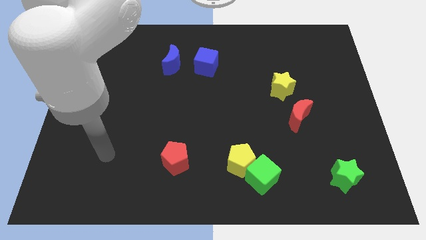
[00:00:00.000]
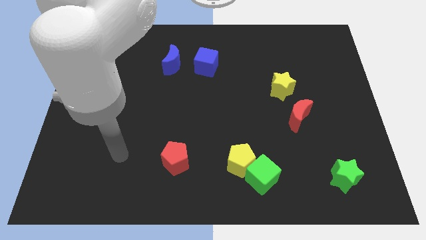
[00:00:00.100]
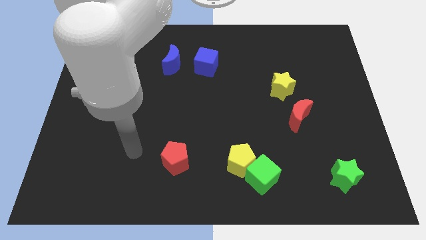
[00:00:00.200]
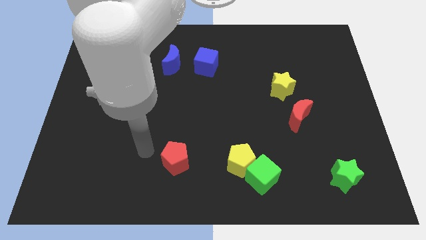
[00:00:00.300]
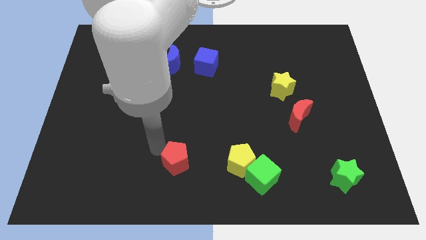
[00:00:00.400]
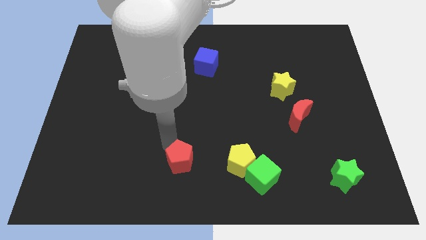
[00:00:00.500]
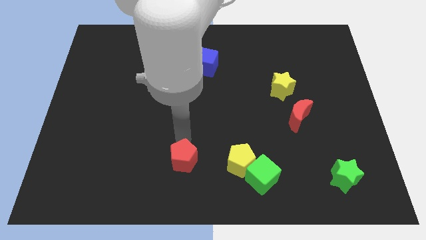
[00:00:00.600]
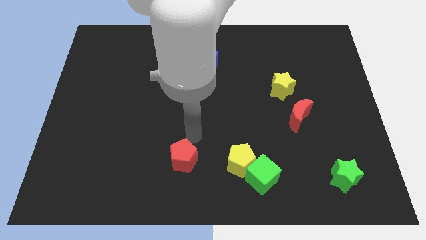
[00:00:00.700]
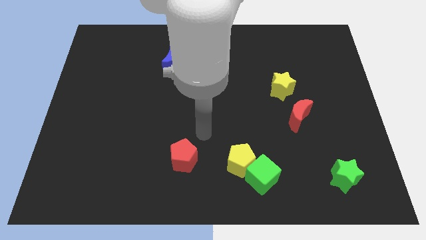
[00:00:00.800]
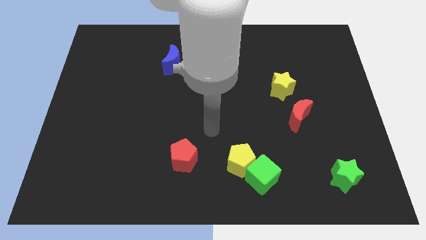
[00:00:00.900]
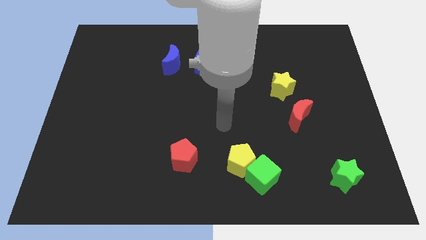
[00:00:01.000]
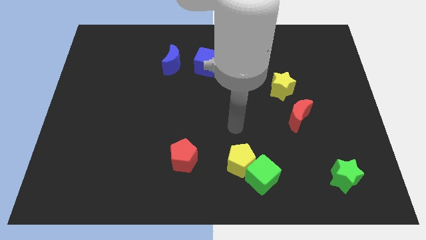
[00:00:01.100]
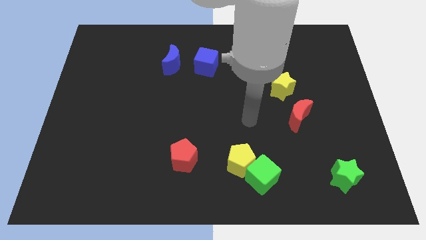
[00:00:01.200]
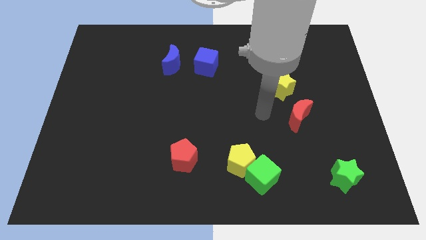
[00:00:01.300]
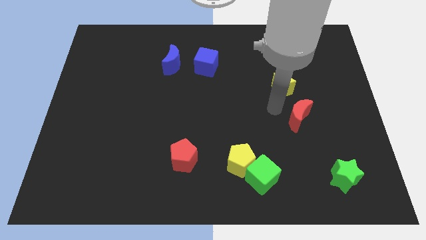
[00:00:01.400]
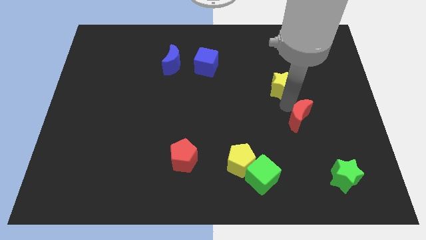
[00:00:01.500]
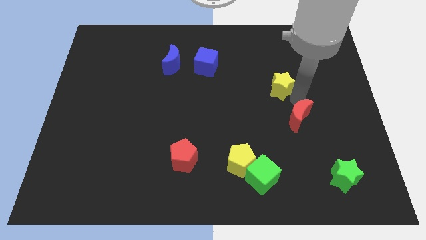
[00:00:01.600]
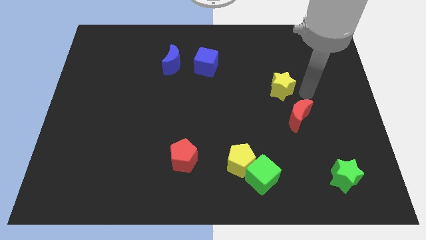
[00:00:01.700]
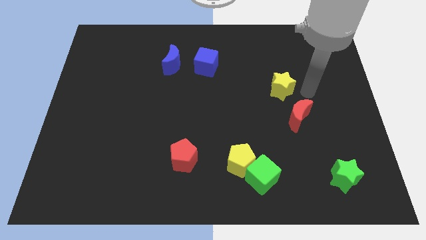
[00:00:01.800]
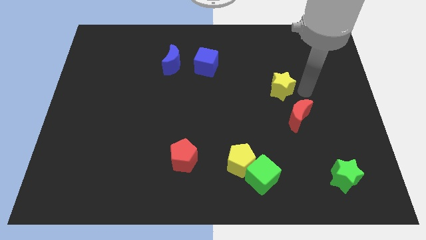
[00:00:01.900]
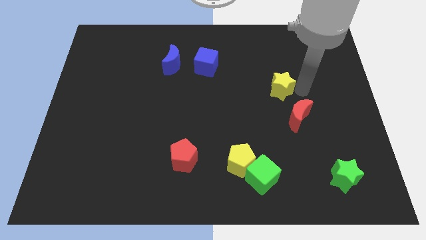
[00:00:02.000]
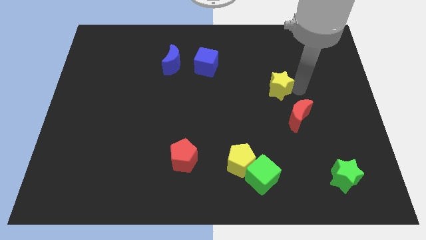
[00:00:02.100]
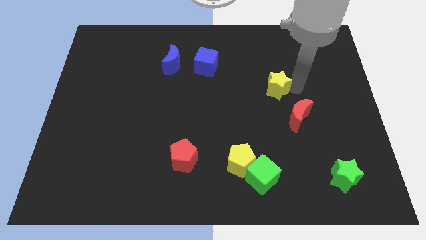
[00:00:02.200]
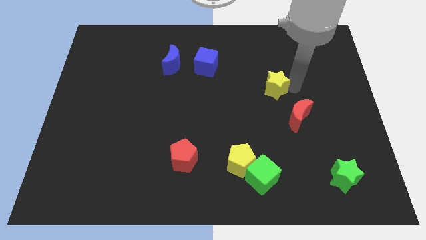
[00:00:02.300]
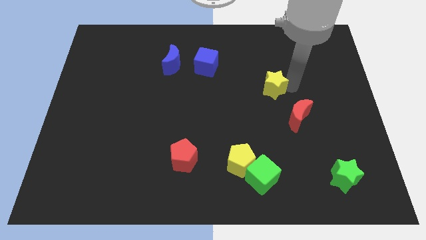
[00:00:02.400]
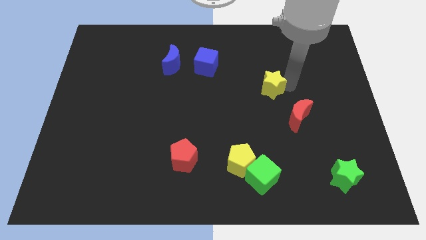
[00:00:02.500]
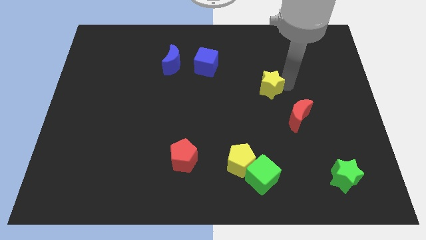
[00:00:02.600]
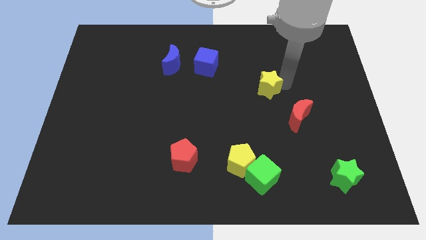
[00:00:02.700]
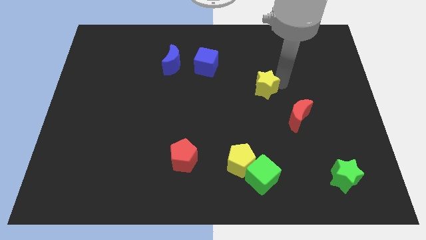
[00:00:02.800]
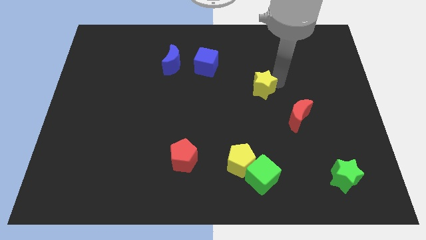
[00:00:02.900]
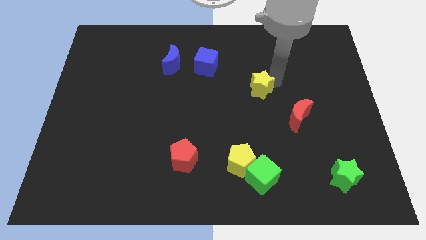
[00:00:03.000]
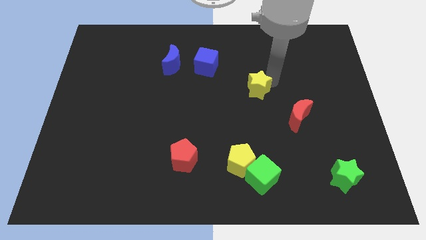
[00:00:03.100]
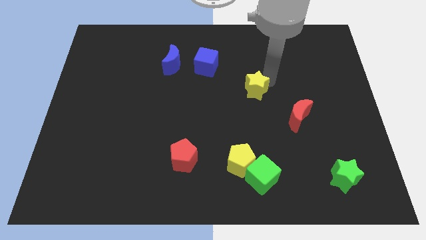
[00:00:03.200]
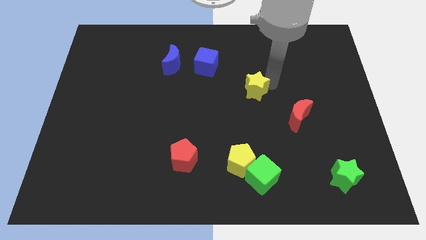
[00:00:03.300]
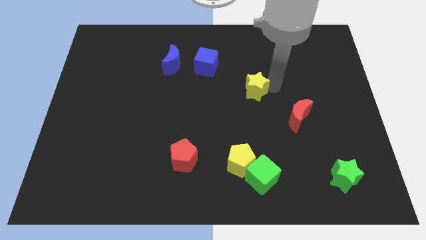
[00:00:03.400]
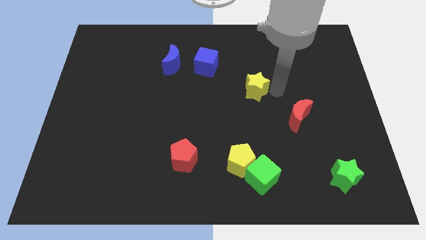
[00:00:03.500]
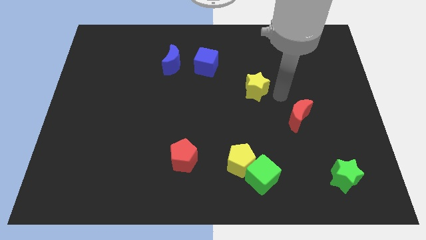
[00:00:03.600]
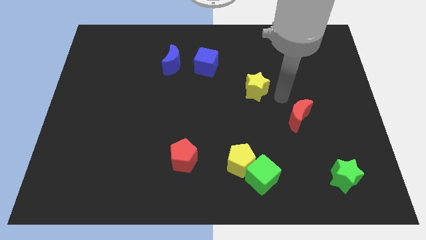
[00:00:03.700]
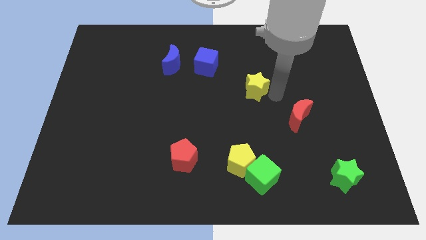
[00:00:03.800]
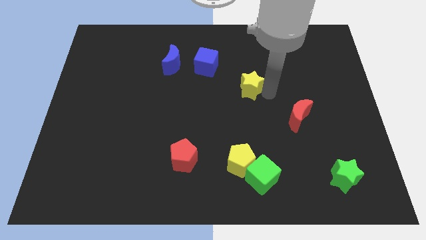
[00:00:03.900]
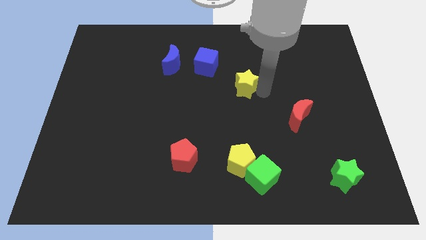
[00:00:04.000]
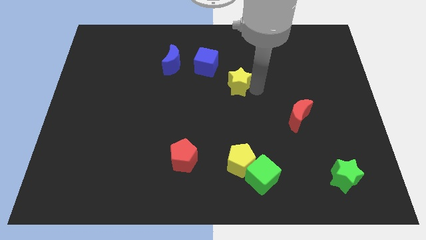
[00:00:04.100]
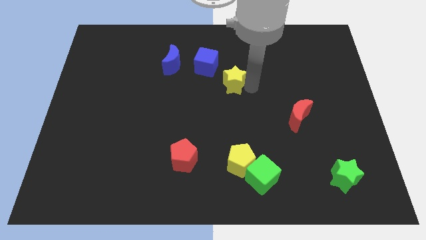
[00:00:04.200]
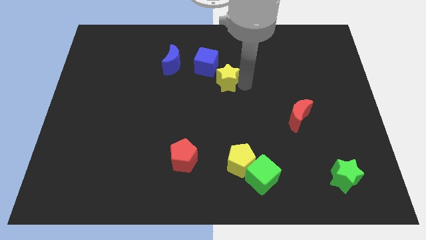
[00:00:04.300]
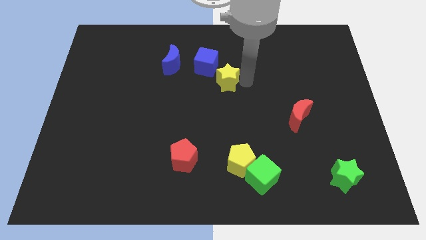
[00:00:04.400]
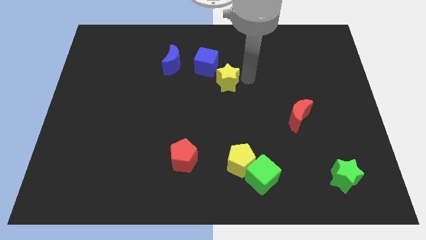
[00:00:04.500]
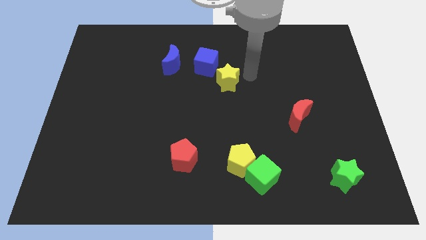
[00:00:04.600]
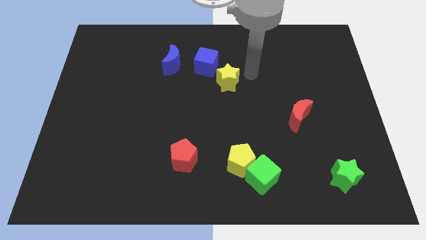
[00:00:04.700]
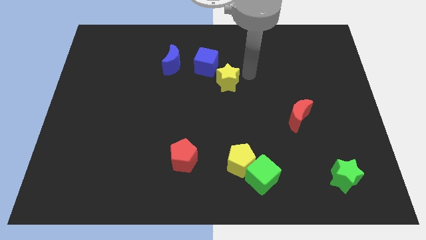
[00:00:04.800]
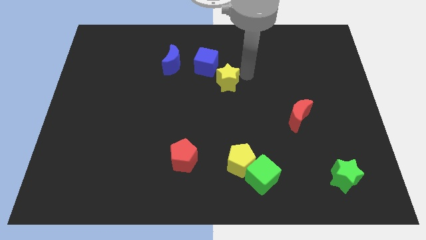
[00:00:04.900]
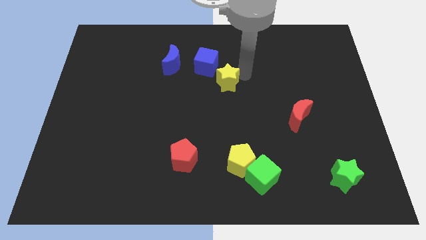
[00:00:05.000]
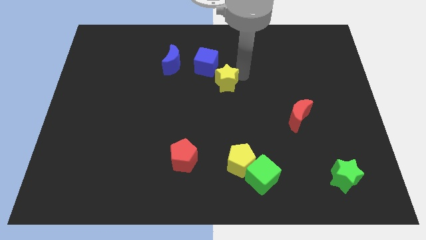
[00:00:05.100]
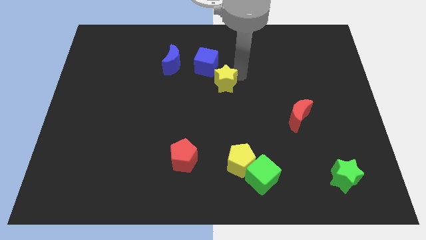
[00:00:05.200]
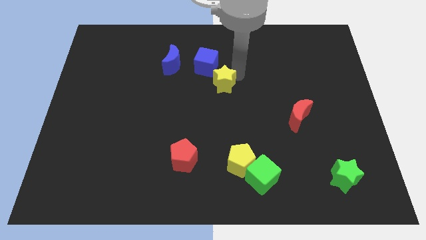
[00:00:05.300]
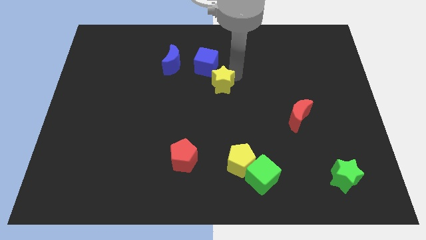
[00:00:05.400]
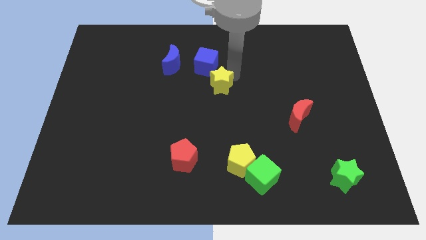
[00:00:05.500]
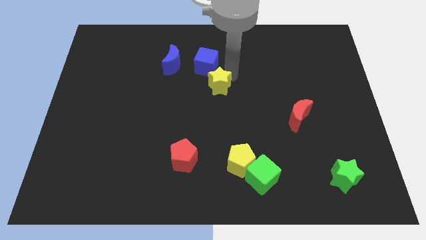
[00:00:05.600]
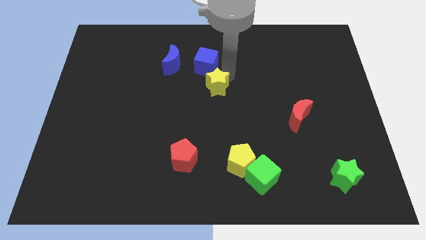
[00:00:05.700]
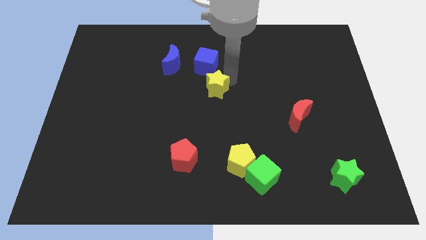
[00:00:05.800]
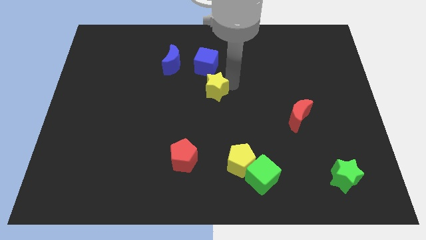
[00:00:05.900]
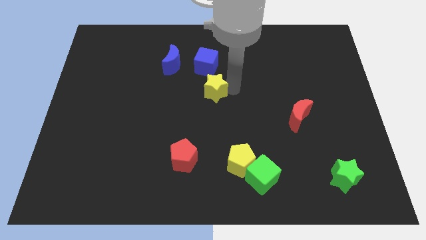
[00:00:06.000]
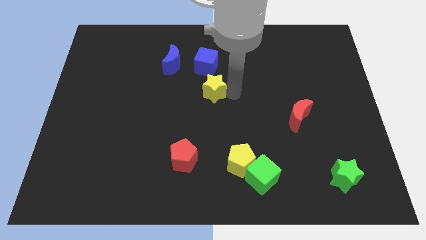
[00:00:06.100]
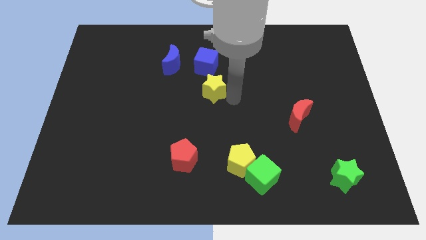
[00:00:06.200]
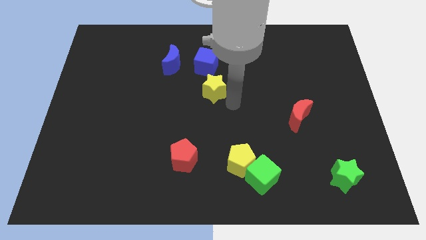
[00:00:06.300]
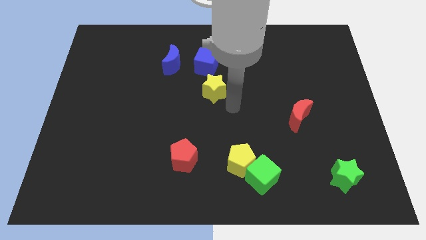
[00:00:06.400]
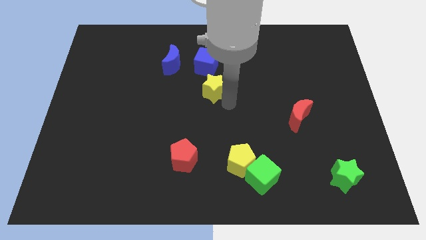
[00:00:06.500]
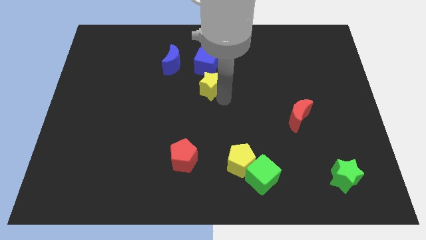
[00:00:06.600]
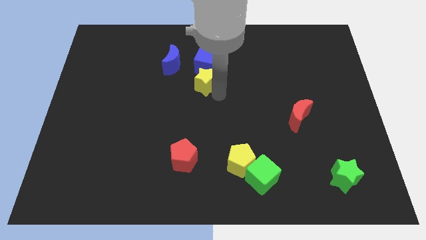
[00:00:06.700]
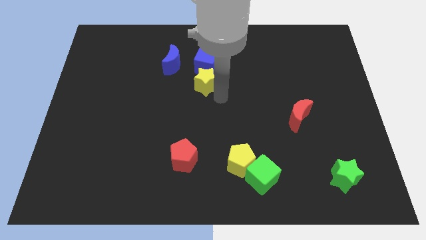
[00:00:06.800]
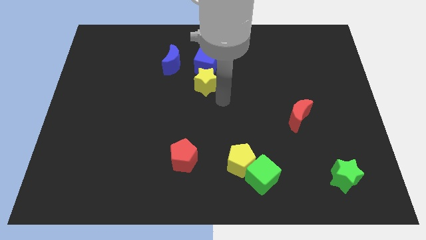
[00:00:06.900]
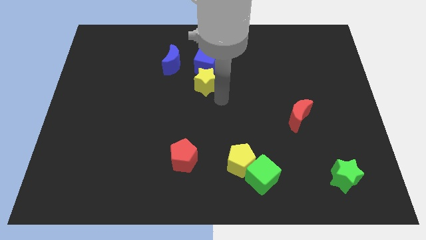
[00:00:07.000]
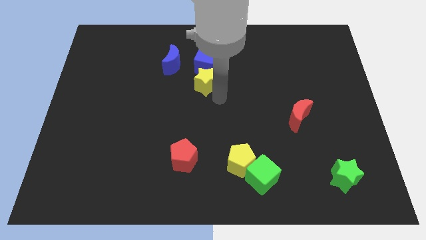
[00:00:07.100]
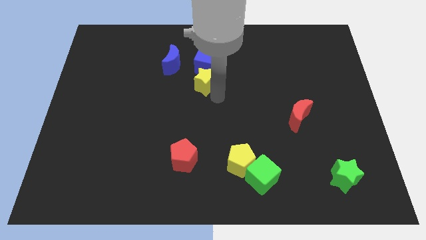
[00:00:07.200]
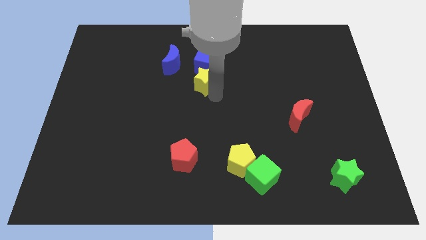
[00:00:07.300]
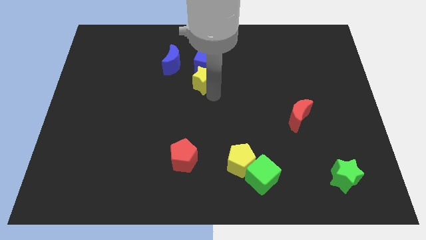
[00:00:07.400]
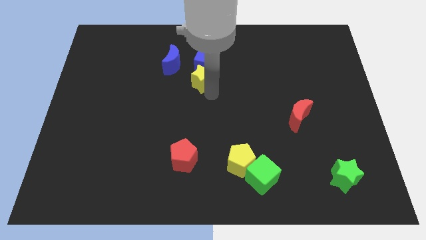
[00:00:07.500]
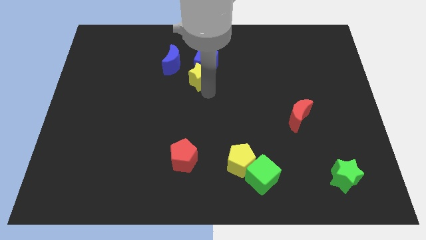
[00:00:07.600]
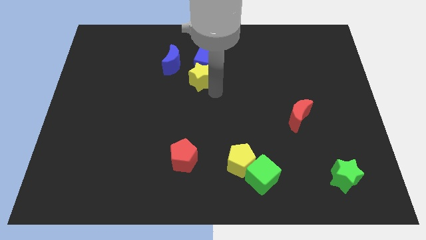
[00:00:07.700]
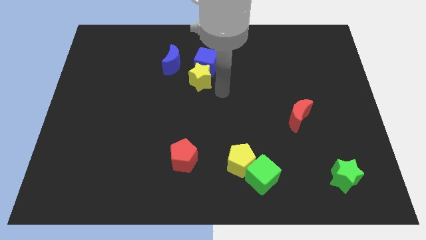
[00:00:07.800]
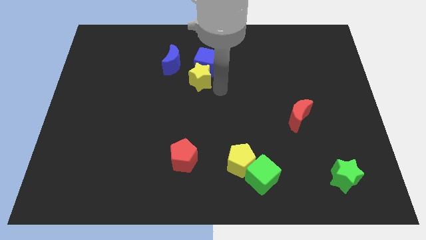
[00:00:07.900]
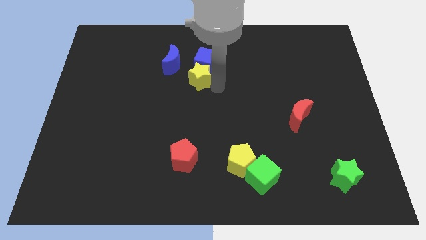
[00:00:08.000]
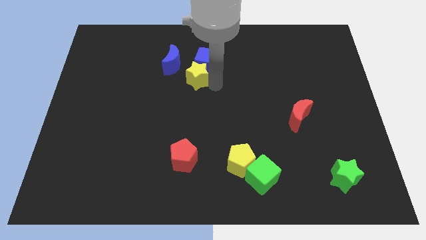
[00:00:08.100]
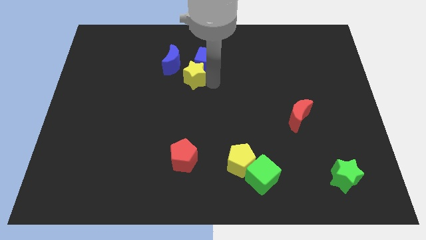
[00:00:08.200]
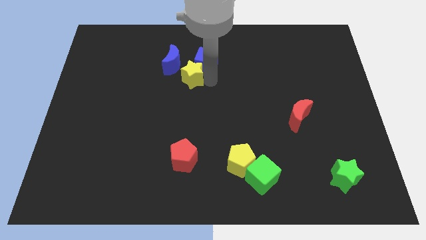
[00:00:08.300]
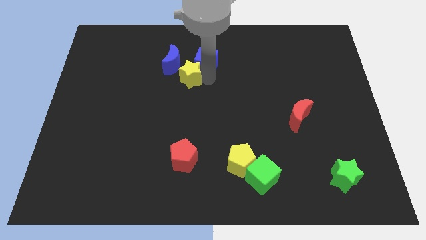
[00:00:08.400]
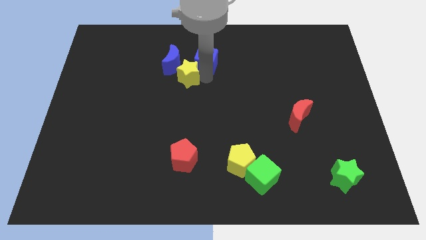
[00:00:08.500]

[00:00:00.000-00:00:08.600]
push the yellow star close to the blue moon
